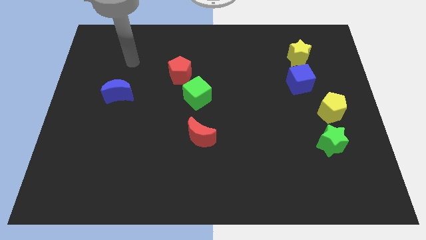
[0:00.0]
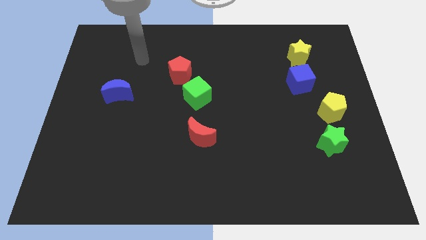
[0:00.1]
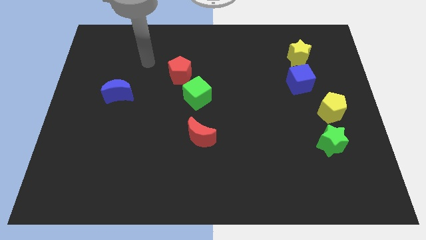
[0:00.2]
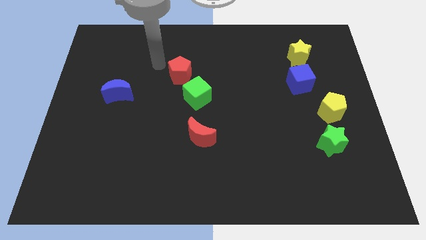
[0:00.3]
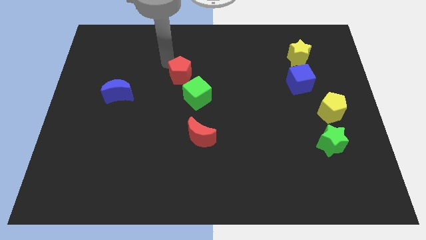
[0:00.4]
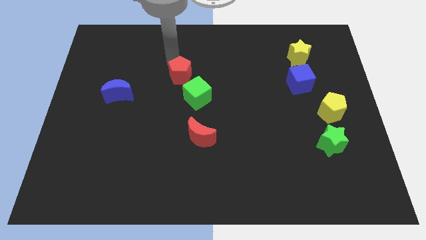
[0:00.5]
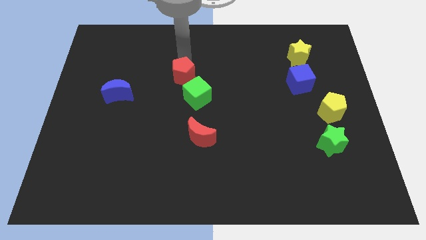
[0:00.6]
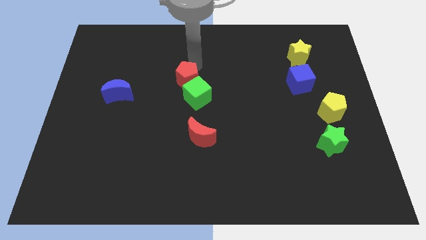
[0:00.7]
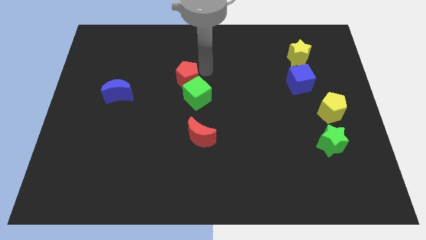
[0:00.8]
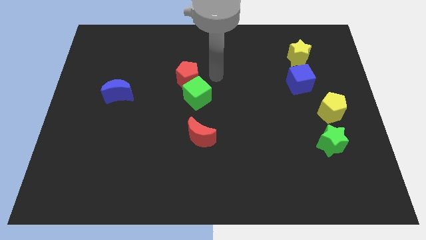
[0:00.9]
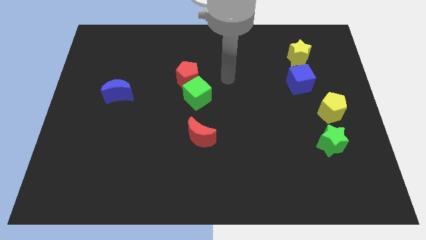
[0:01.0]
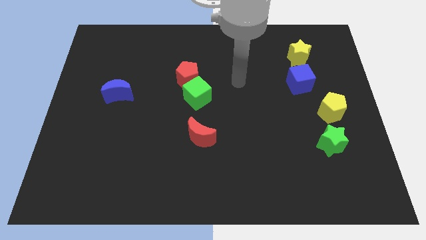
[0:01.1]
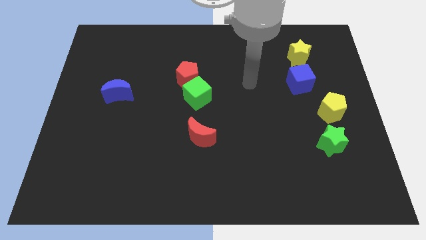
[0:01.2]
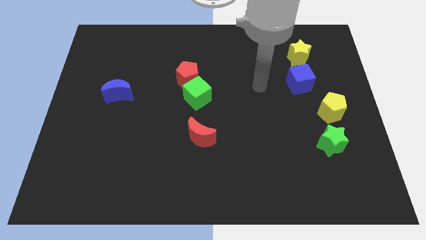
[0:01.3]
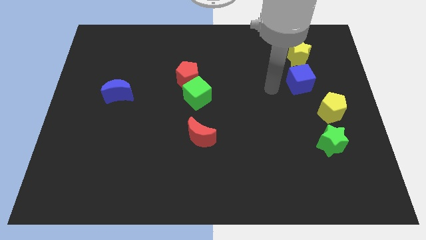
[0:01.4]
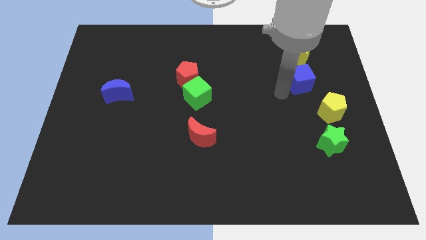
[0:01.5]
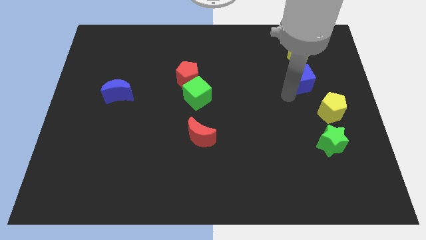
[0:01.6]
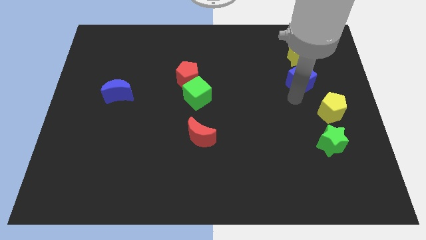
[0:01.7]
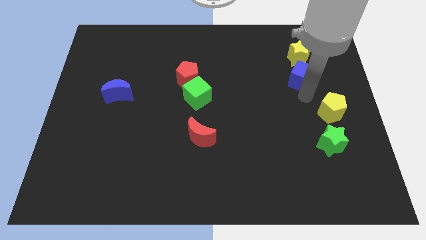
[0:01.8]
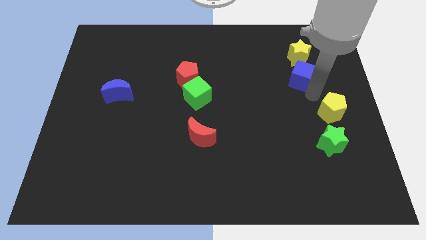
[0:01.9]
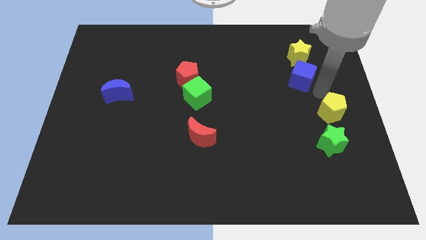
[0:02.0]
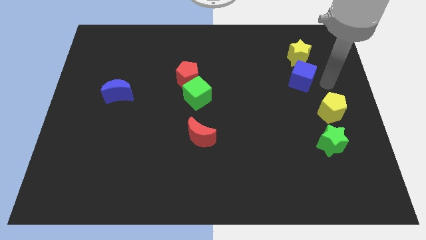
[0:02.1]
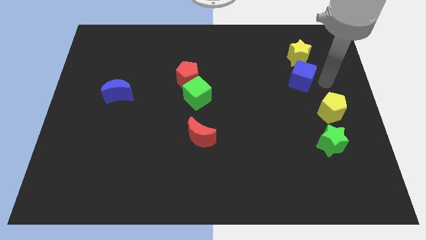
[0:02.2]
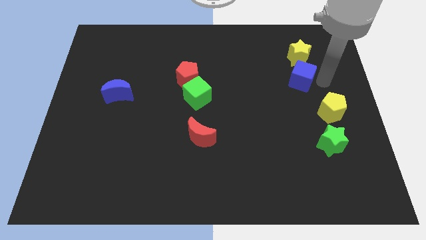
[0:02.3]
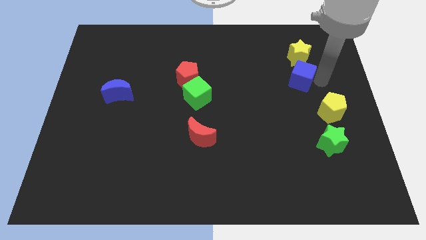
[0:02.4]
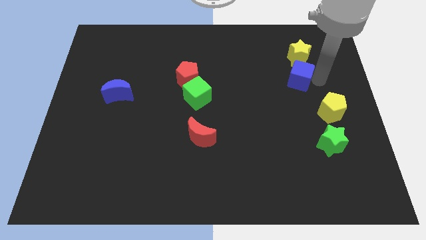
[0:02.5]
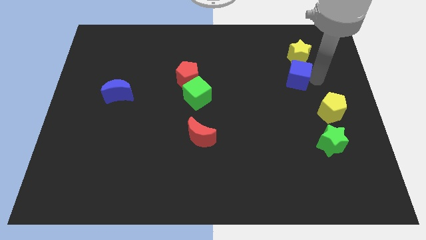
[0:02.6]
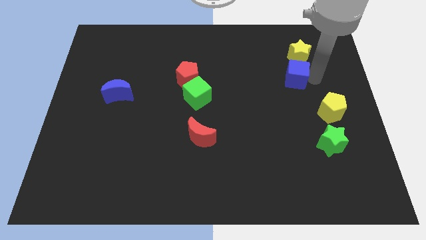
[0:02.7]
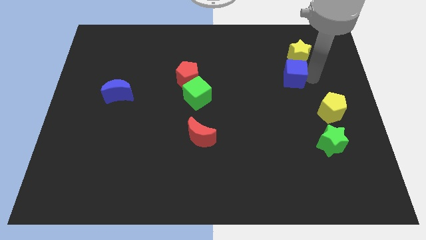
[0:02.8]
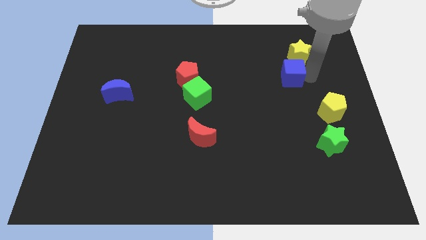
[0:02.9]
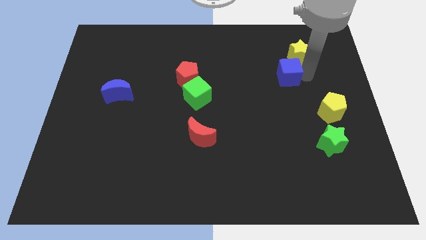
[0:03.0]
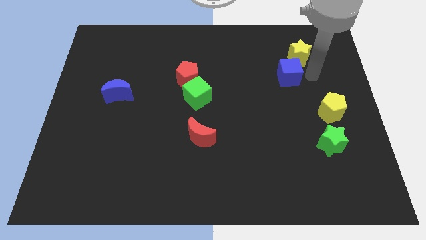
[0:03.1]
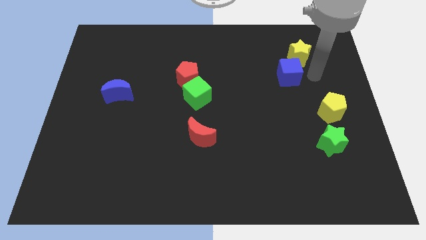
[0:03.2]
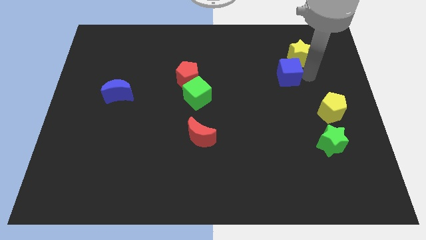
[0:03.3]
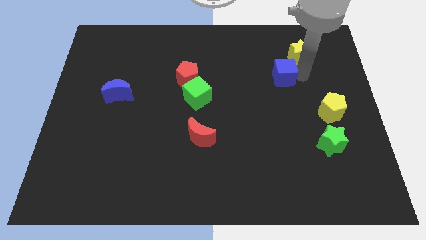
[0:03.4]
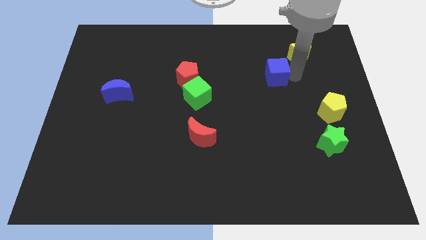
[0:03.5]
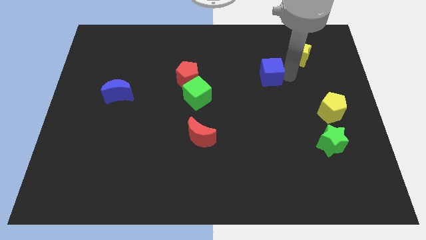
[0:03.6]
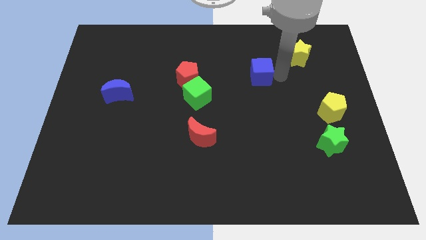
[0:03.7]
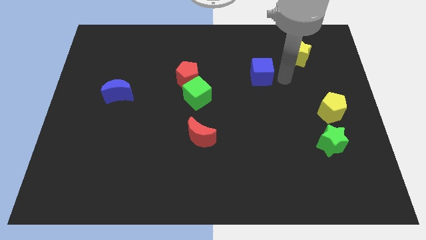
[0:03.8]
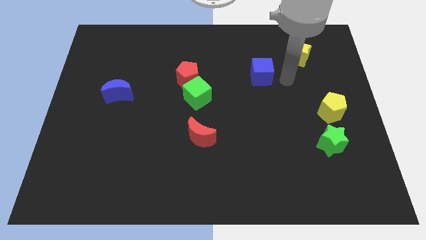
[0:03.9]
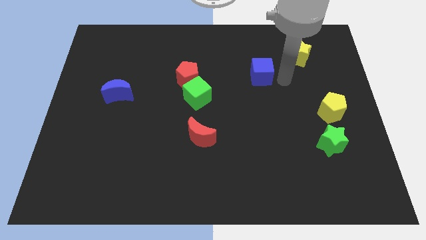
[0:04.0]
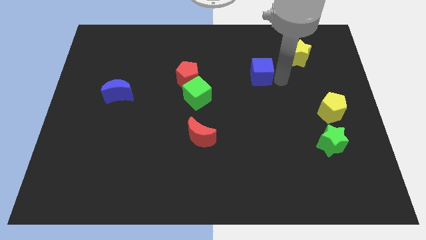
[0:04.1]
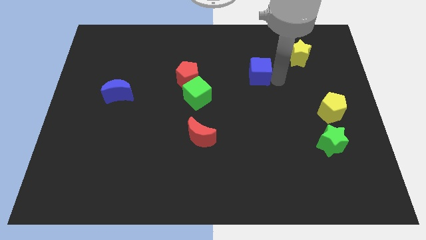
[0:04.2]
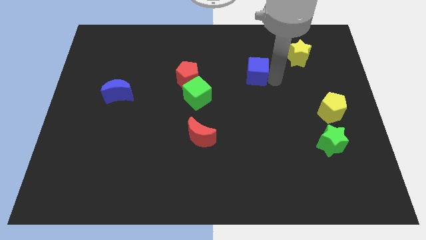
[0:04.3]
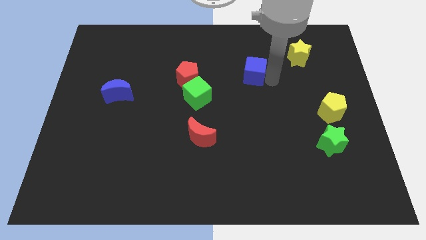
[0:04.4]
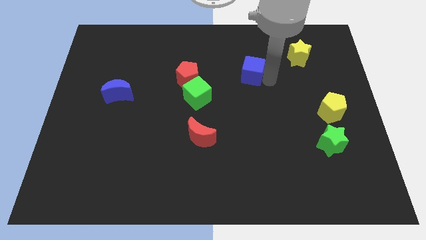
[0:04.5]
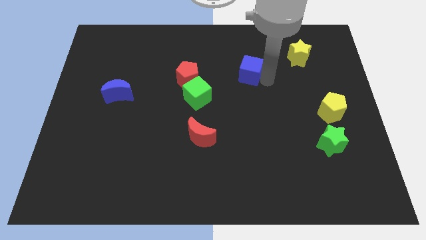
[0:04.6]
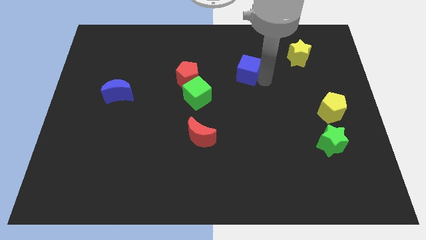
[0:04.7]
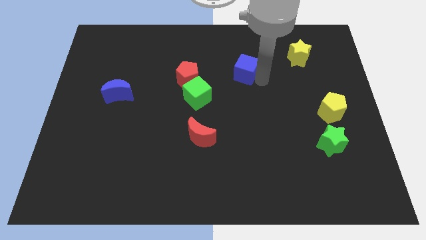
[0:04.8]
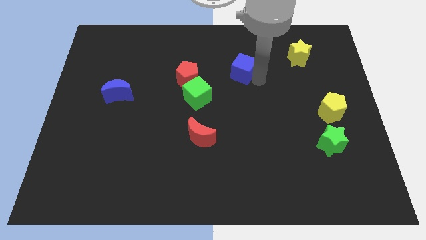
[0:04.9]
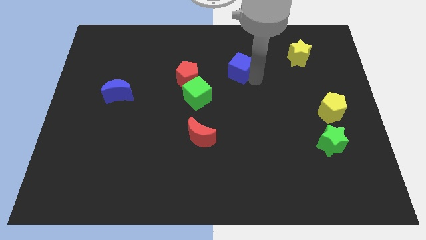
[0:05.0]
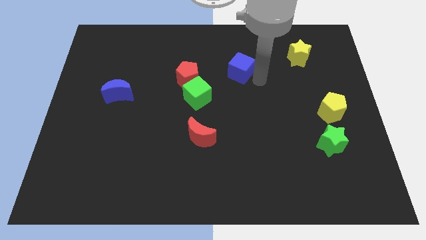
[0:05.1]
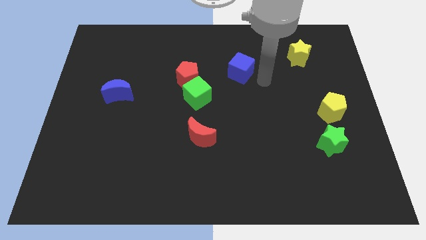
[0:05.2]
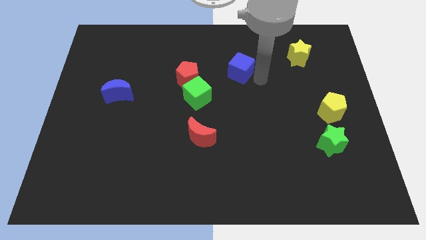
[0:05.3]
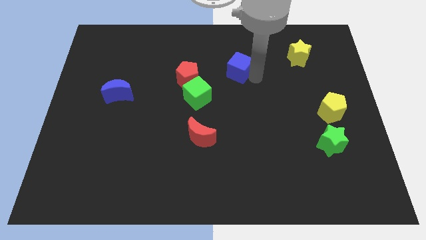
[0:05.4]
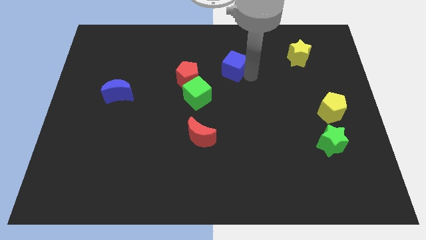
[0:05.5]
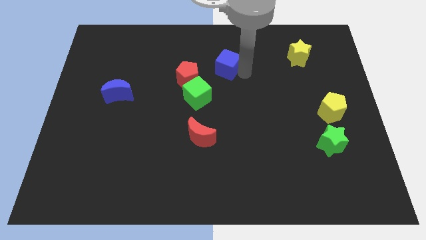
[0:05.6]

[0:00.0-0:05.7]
push the blue cube diagonally up and to the right of the red pentagon

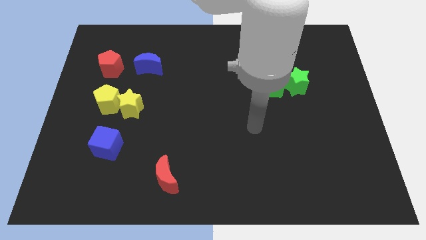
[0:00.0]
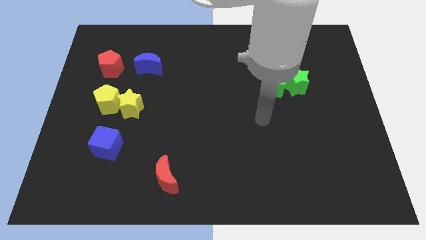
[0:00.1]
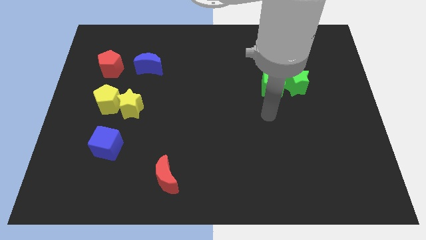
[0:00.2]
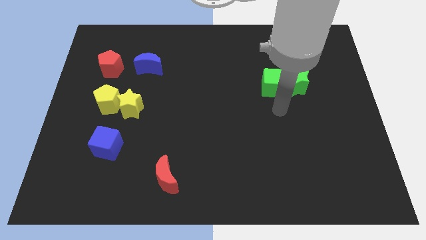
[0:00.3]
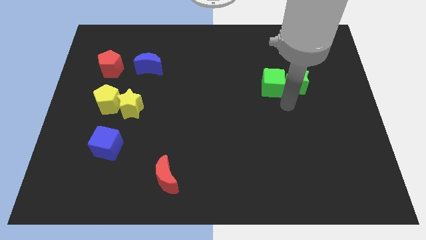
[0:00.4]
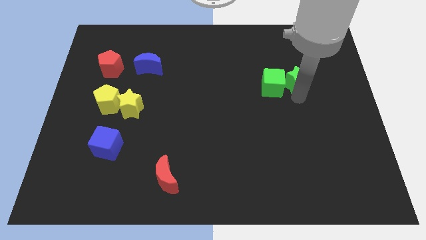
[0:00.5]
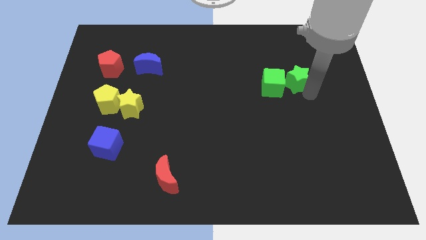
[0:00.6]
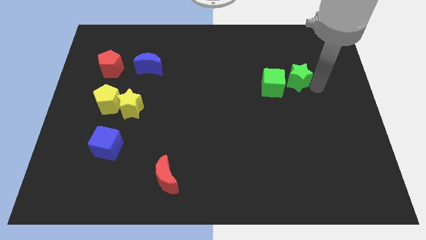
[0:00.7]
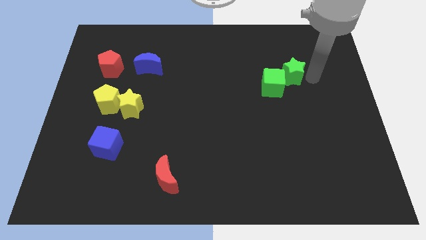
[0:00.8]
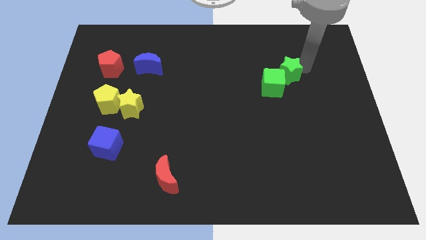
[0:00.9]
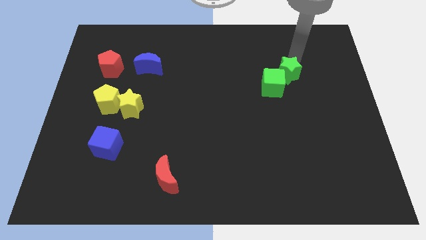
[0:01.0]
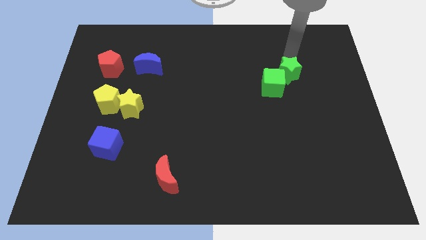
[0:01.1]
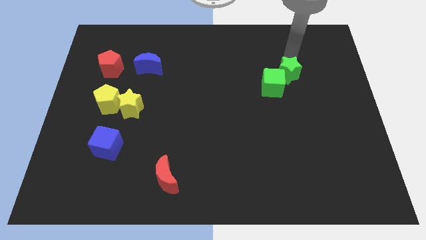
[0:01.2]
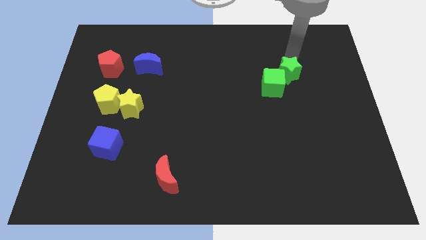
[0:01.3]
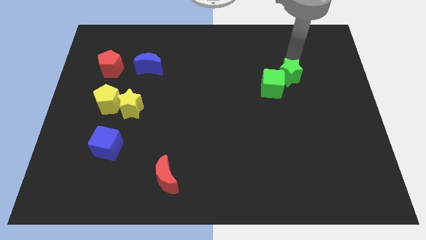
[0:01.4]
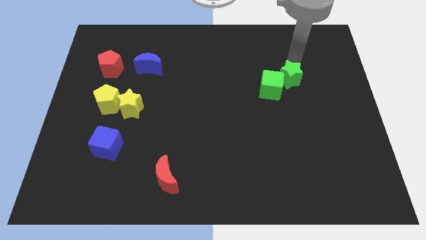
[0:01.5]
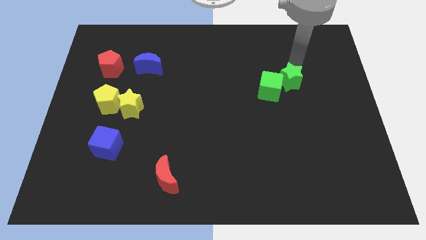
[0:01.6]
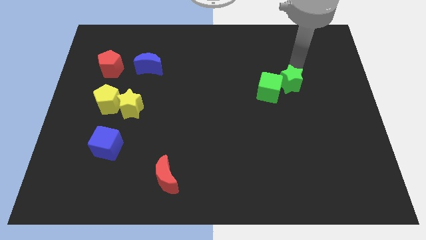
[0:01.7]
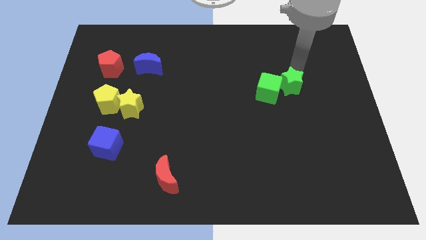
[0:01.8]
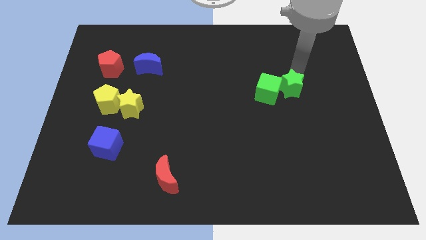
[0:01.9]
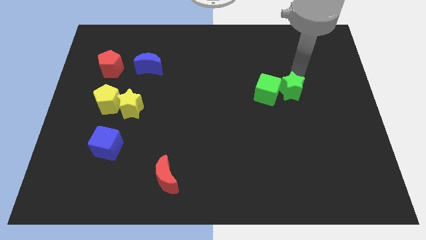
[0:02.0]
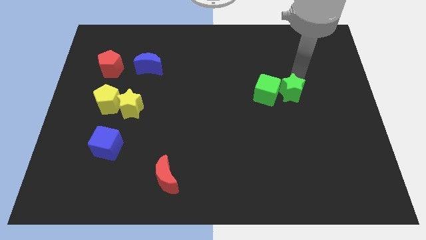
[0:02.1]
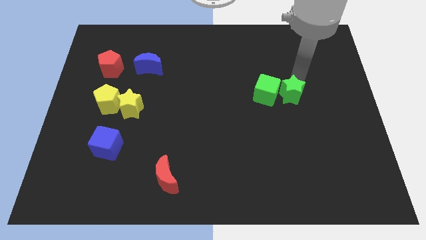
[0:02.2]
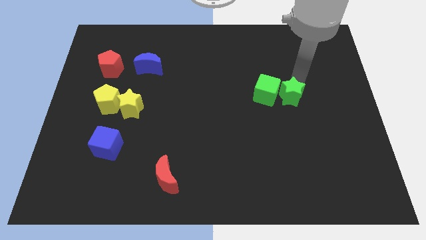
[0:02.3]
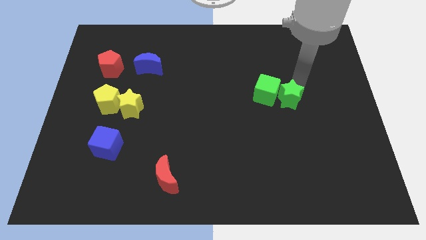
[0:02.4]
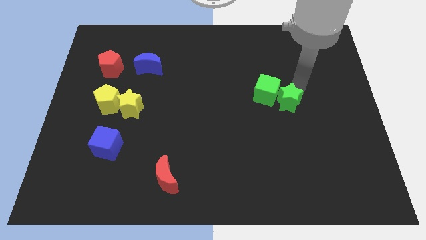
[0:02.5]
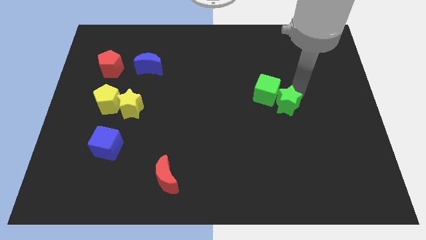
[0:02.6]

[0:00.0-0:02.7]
put the green star below the green cube
